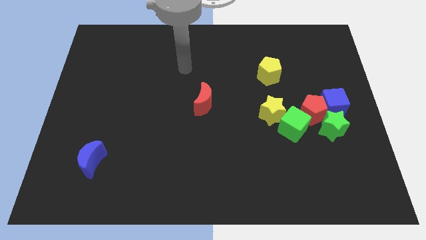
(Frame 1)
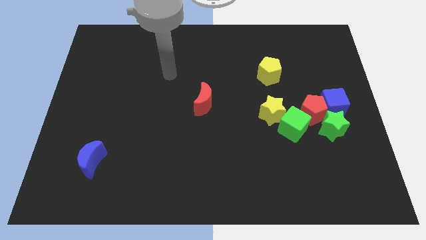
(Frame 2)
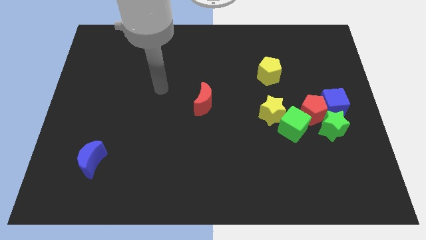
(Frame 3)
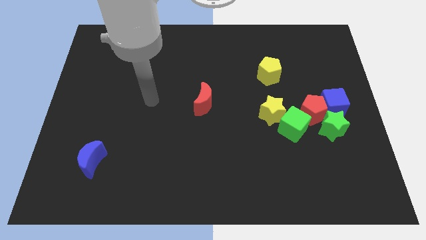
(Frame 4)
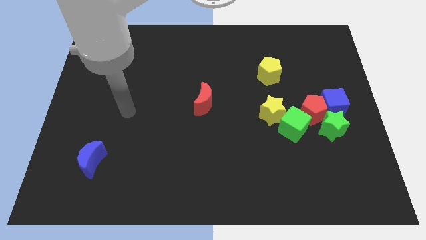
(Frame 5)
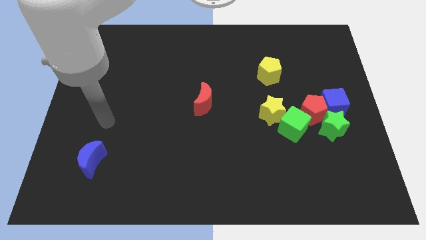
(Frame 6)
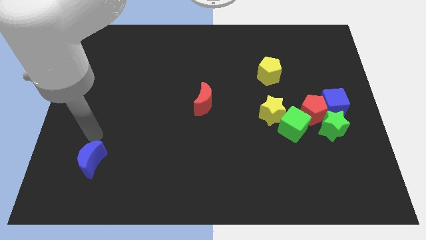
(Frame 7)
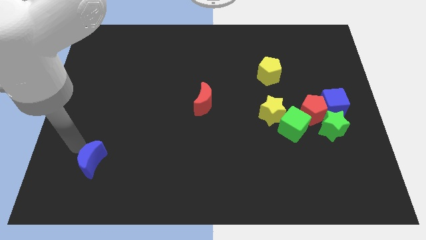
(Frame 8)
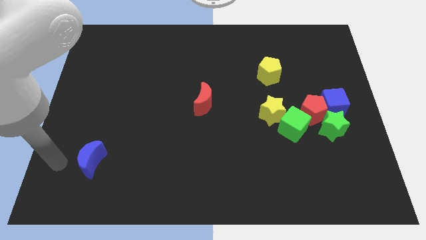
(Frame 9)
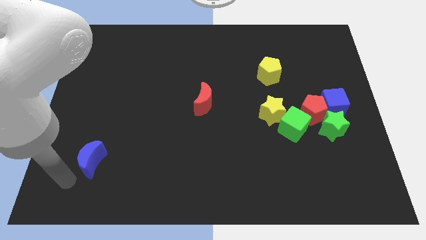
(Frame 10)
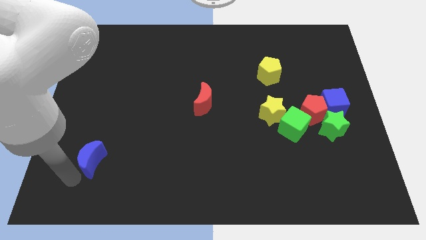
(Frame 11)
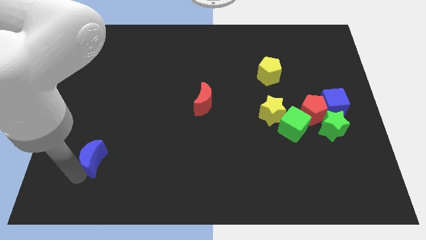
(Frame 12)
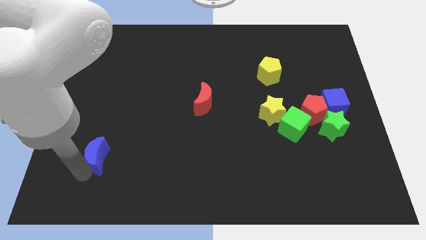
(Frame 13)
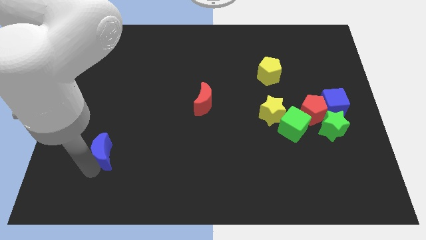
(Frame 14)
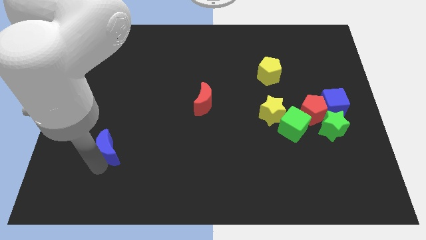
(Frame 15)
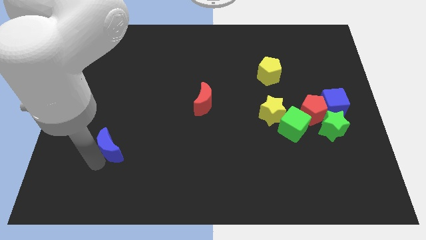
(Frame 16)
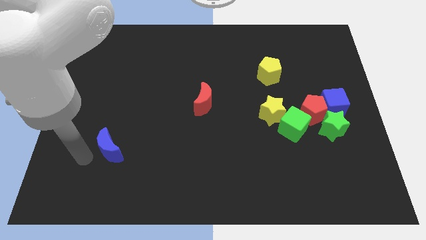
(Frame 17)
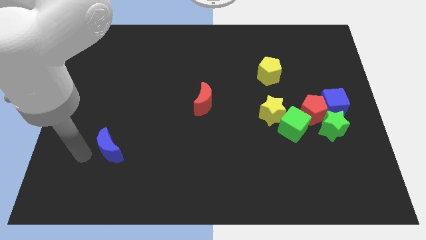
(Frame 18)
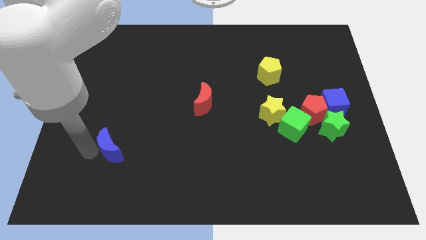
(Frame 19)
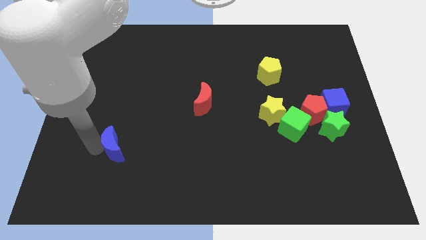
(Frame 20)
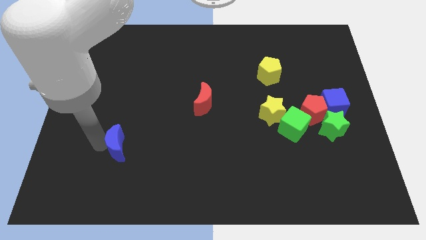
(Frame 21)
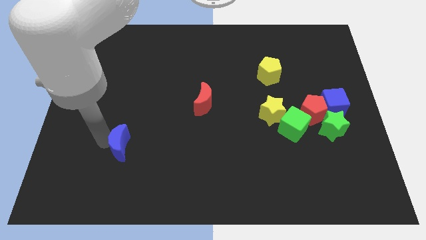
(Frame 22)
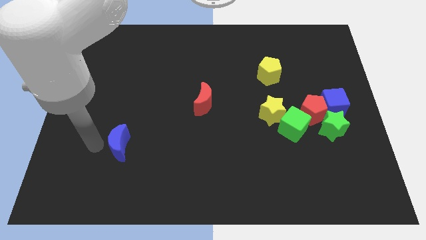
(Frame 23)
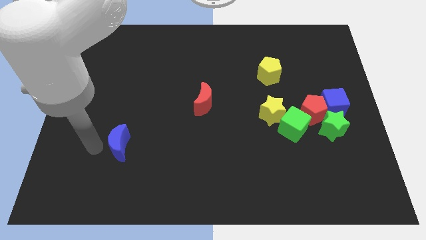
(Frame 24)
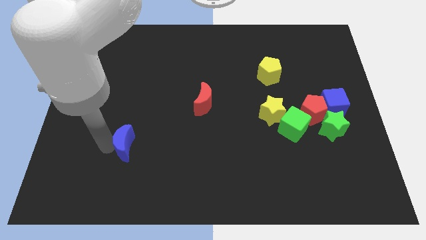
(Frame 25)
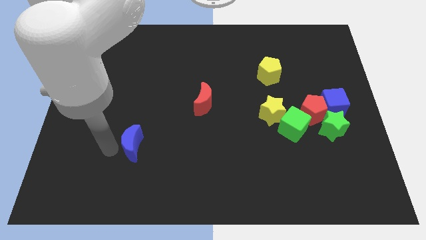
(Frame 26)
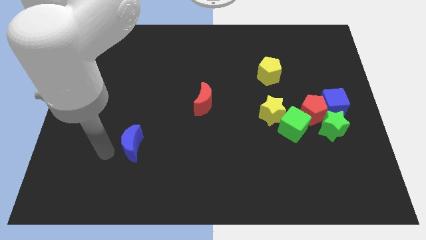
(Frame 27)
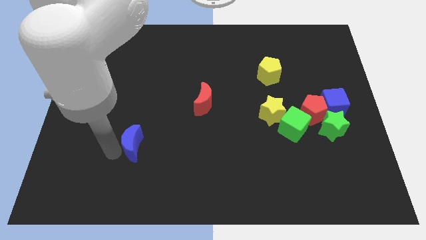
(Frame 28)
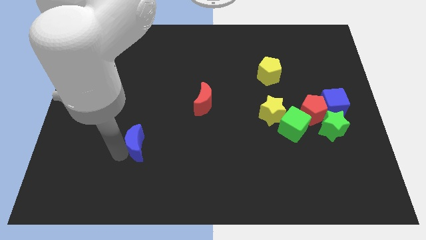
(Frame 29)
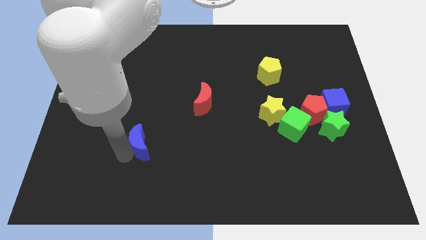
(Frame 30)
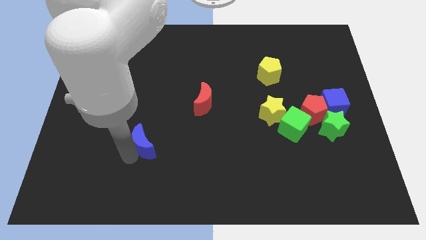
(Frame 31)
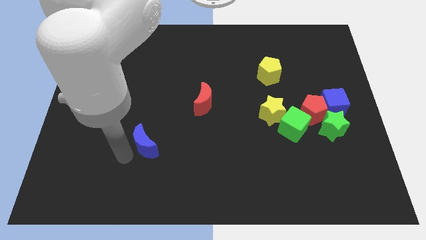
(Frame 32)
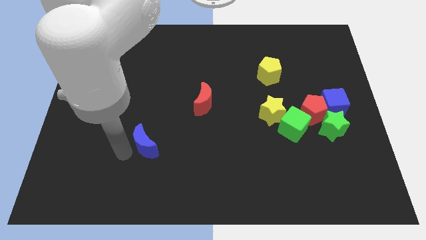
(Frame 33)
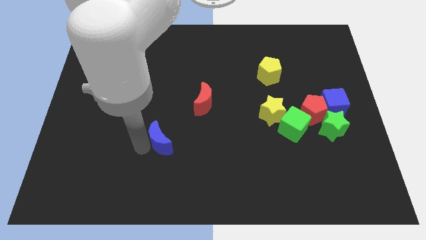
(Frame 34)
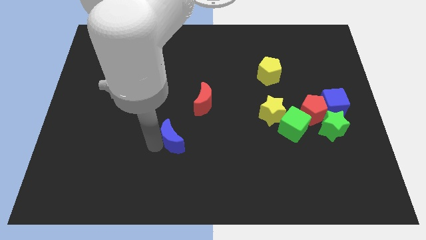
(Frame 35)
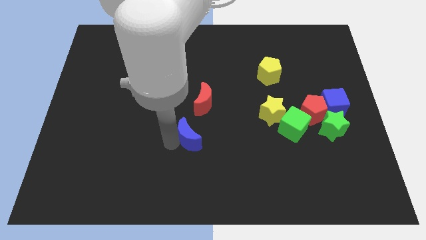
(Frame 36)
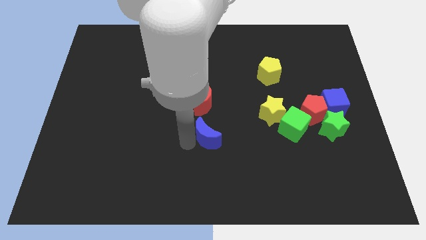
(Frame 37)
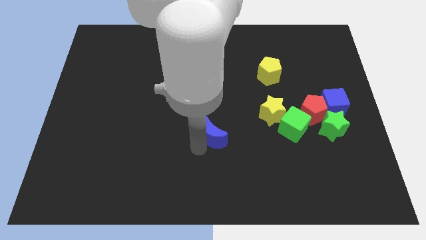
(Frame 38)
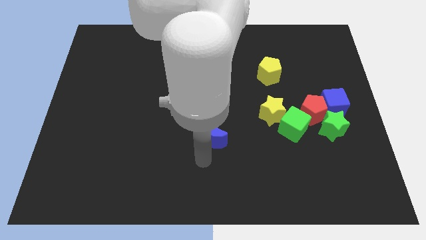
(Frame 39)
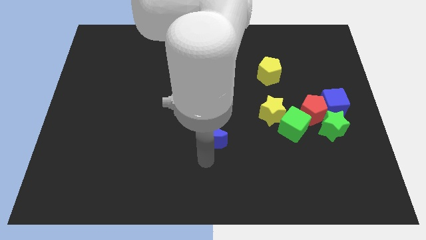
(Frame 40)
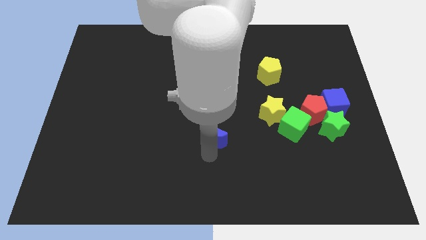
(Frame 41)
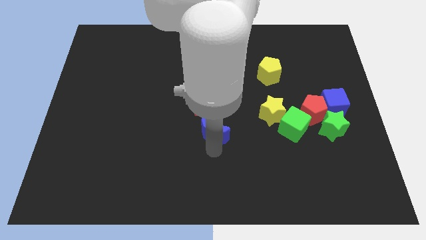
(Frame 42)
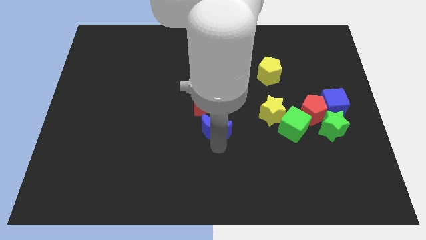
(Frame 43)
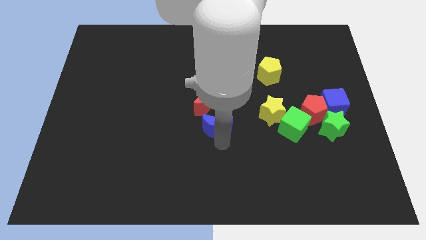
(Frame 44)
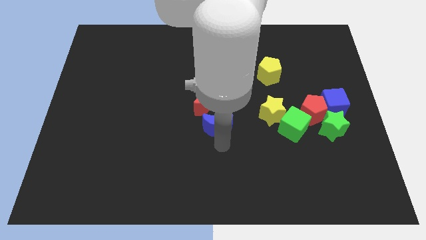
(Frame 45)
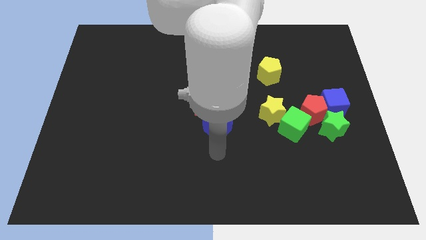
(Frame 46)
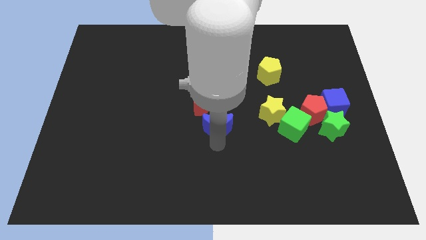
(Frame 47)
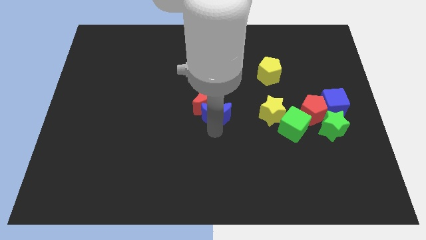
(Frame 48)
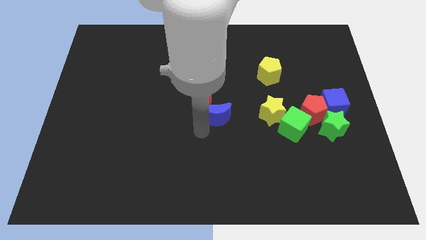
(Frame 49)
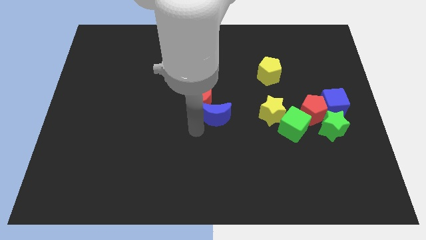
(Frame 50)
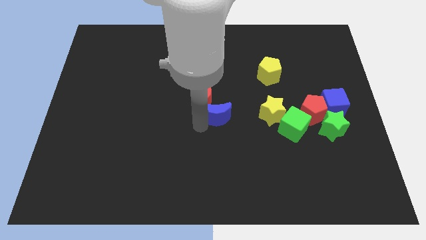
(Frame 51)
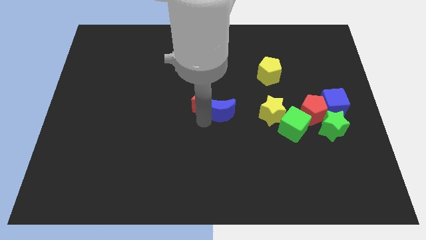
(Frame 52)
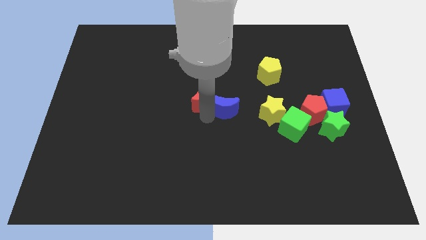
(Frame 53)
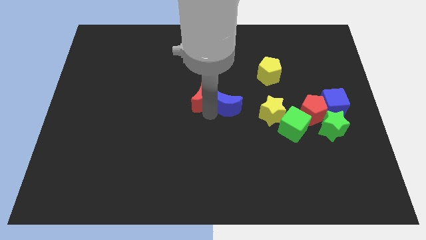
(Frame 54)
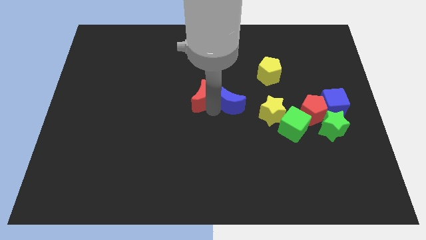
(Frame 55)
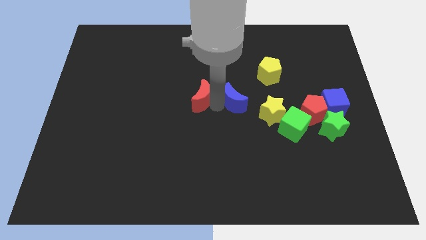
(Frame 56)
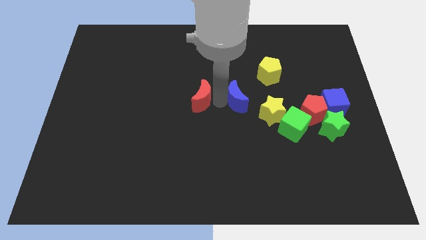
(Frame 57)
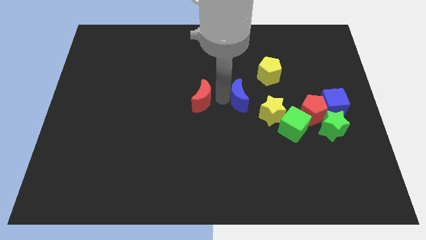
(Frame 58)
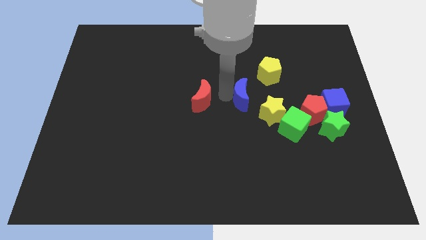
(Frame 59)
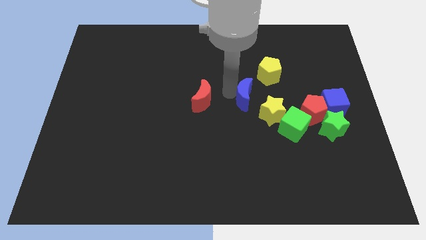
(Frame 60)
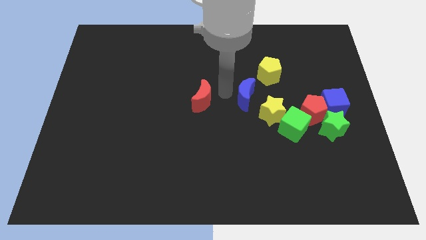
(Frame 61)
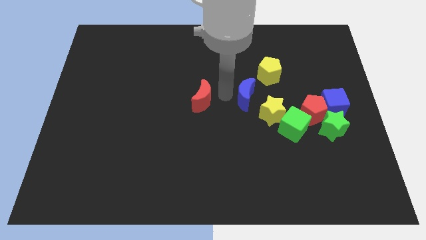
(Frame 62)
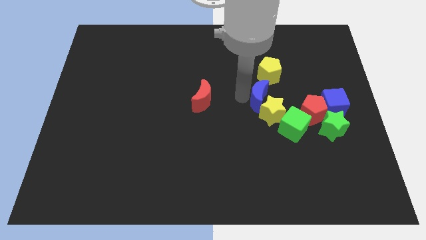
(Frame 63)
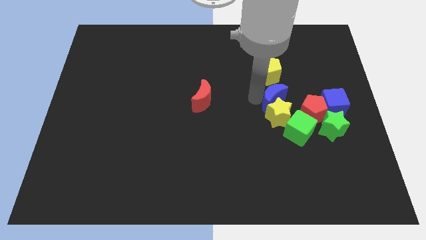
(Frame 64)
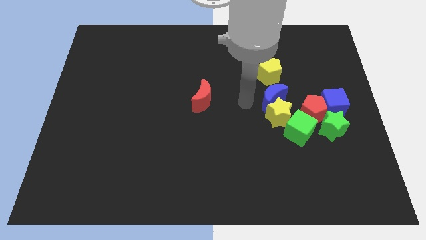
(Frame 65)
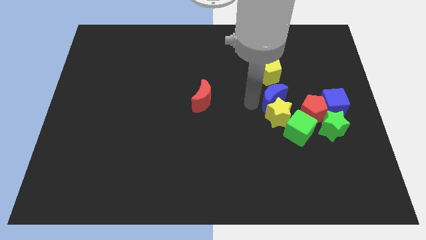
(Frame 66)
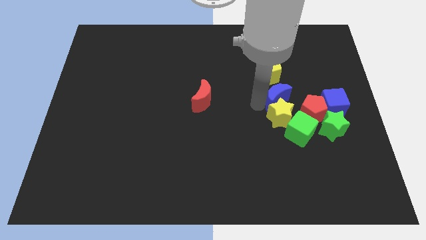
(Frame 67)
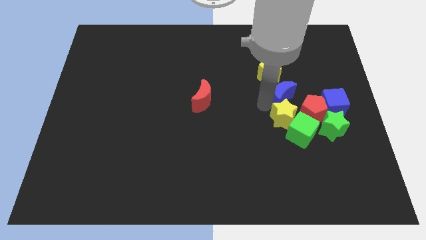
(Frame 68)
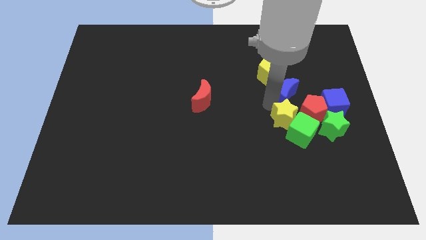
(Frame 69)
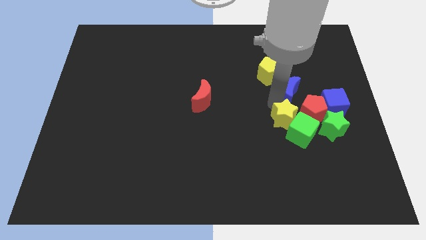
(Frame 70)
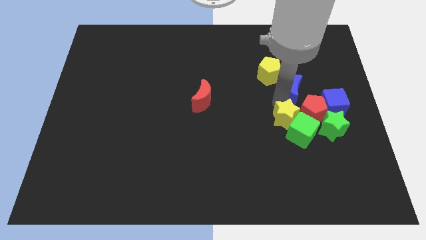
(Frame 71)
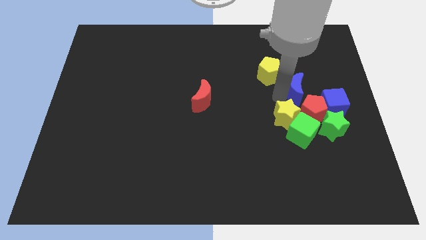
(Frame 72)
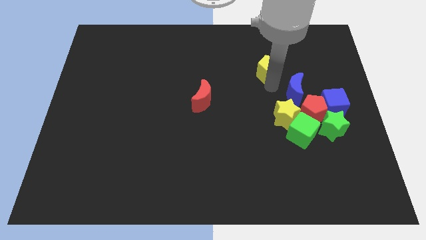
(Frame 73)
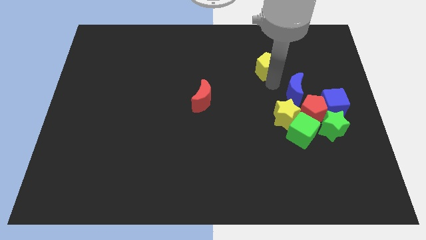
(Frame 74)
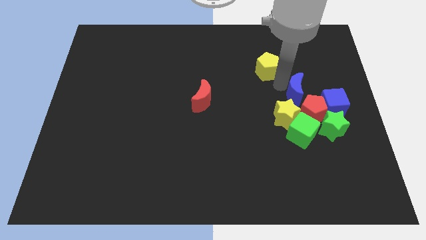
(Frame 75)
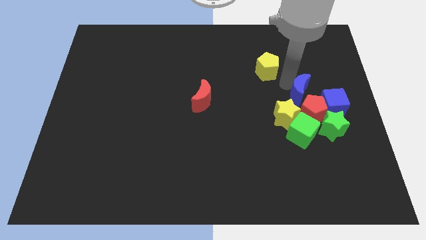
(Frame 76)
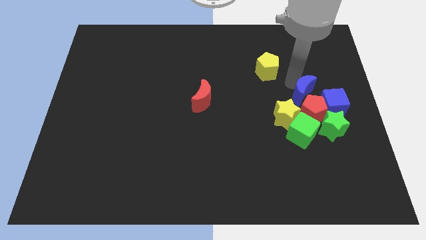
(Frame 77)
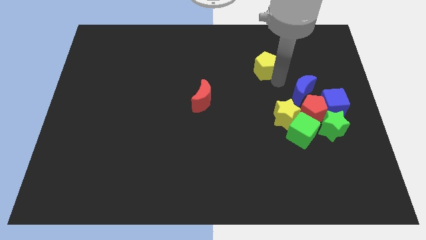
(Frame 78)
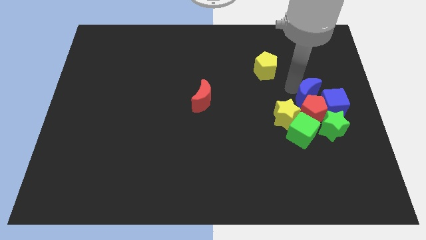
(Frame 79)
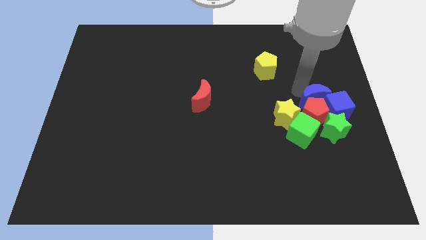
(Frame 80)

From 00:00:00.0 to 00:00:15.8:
slide the blue moon towards the blue cube
